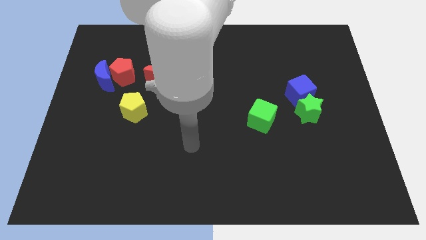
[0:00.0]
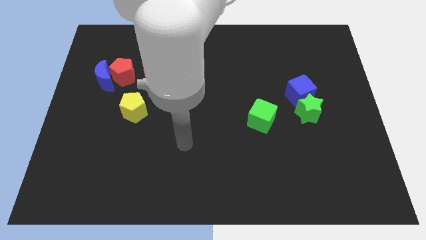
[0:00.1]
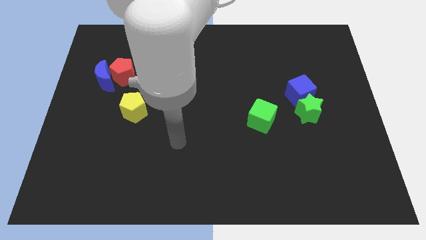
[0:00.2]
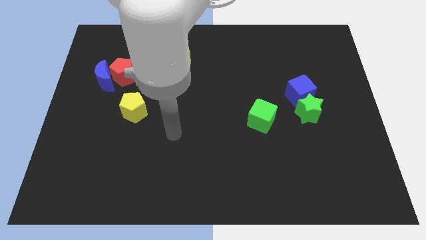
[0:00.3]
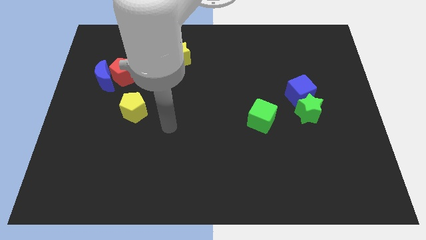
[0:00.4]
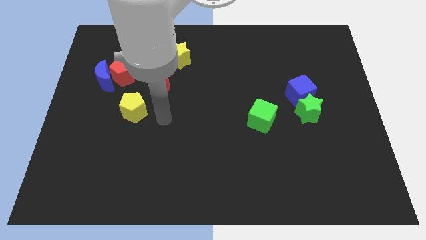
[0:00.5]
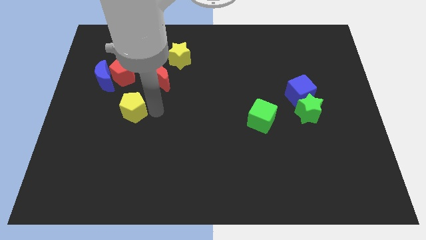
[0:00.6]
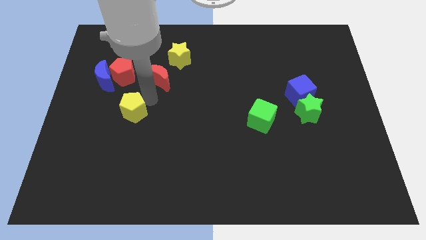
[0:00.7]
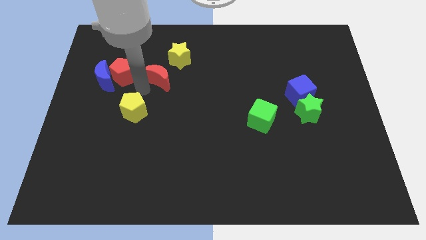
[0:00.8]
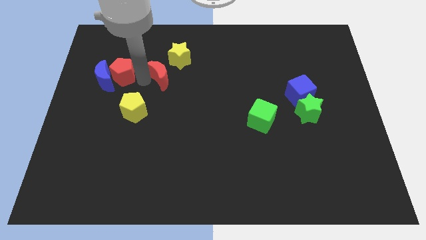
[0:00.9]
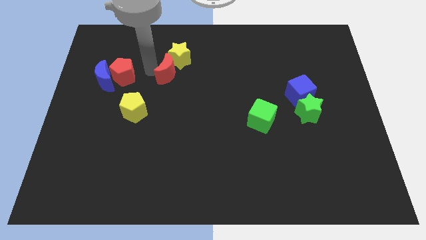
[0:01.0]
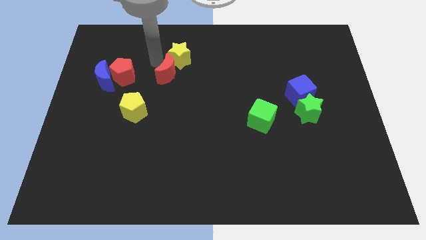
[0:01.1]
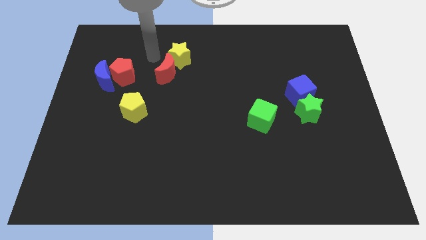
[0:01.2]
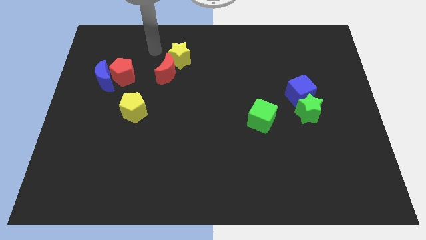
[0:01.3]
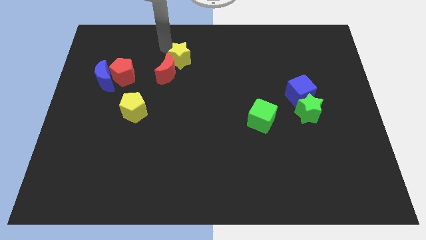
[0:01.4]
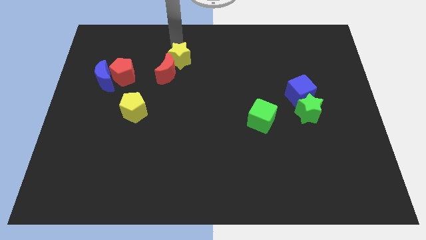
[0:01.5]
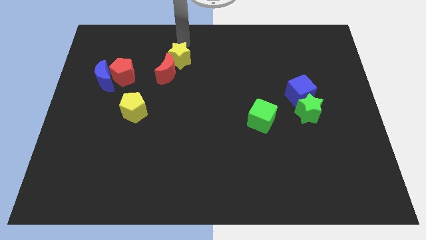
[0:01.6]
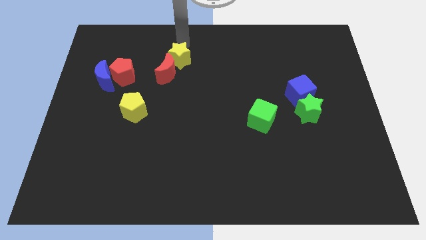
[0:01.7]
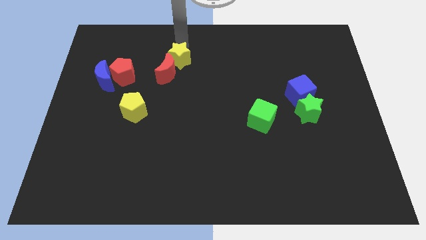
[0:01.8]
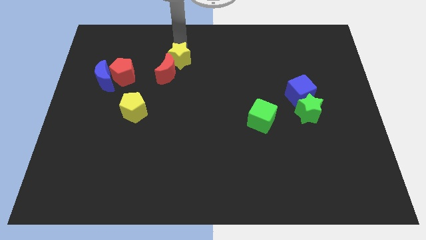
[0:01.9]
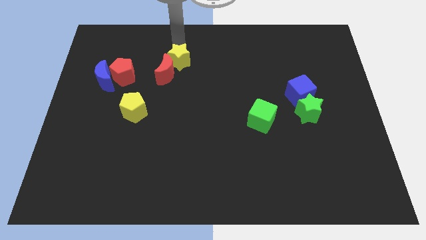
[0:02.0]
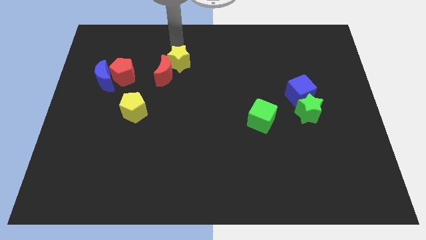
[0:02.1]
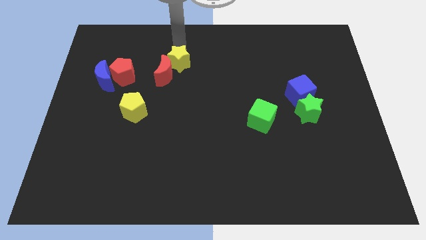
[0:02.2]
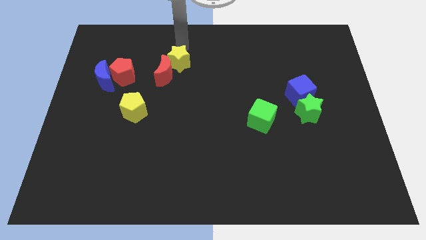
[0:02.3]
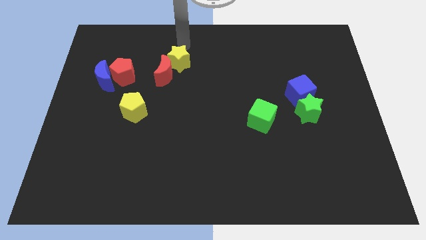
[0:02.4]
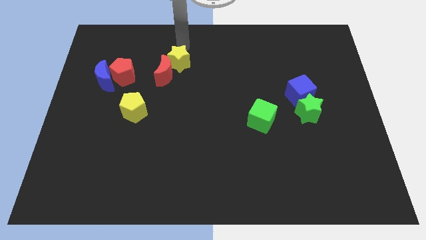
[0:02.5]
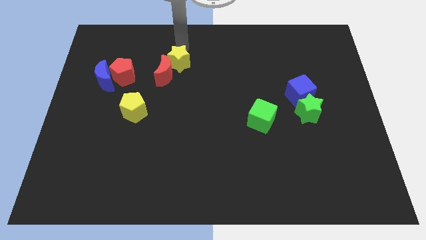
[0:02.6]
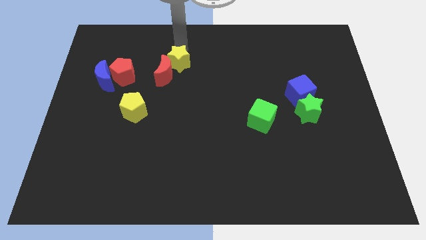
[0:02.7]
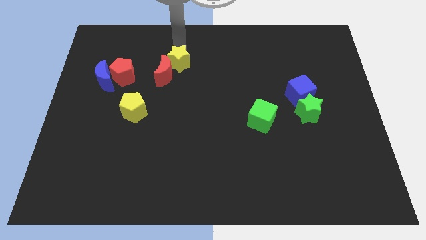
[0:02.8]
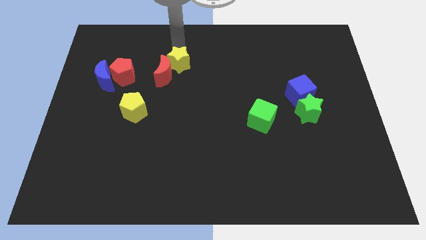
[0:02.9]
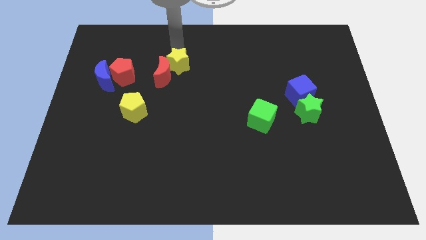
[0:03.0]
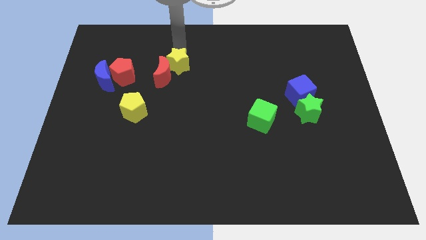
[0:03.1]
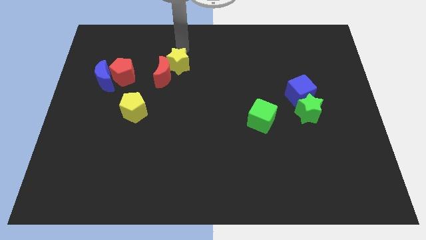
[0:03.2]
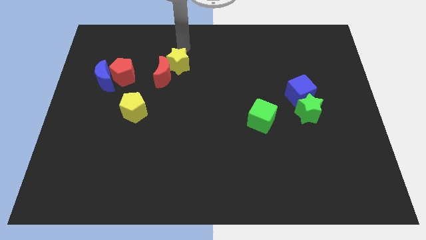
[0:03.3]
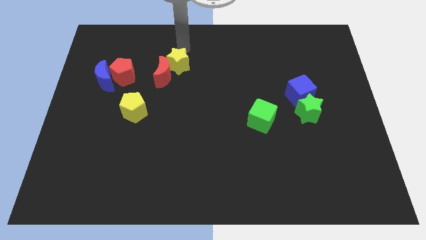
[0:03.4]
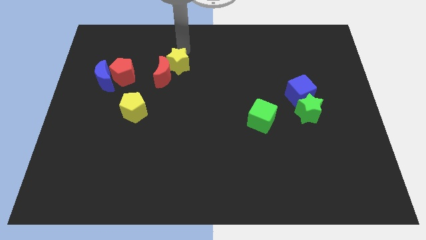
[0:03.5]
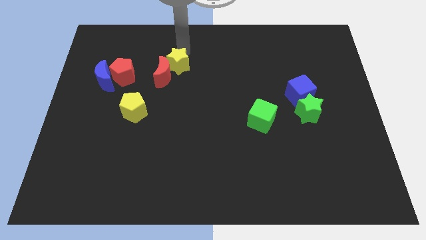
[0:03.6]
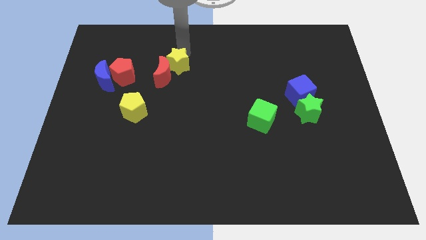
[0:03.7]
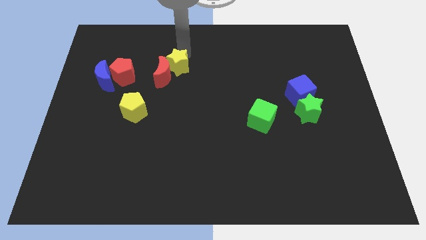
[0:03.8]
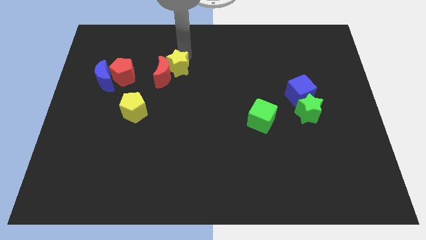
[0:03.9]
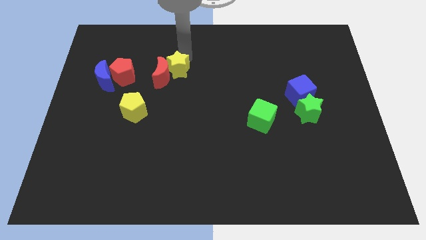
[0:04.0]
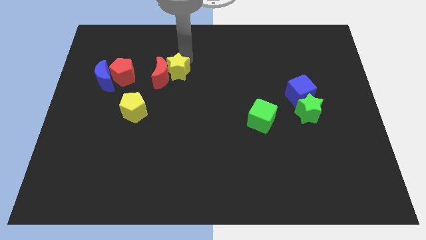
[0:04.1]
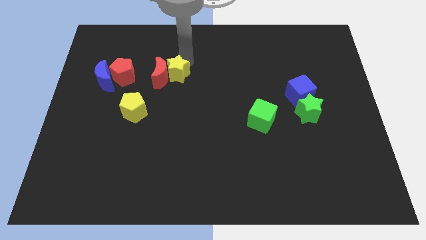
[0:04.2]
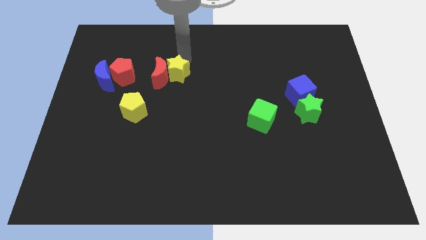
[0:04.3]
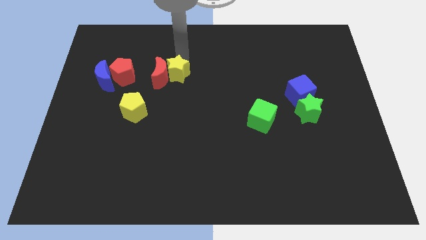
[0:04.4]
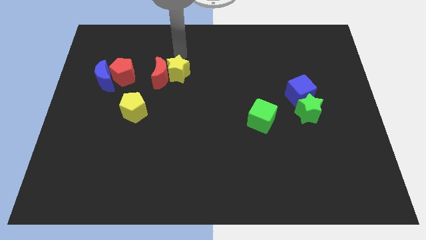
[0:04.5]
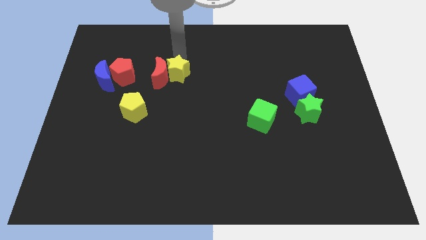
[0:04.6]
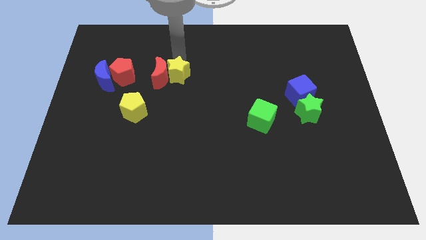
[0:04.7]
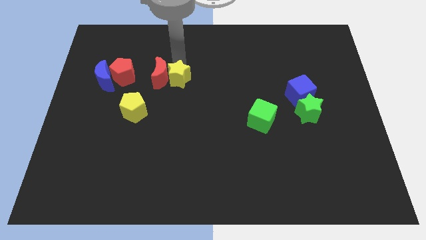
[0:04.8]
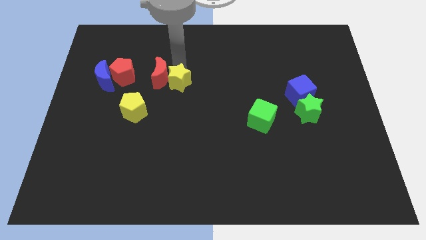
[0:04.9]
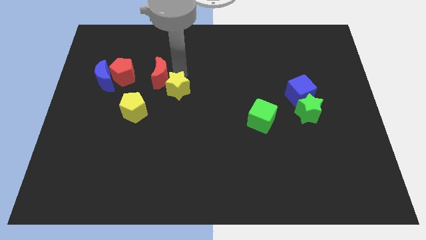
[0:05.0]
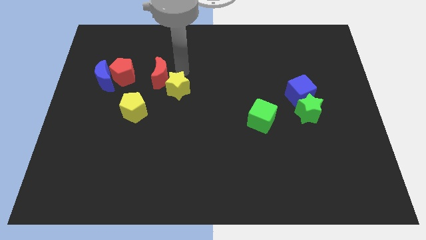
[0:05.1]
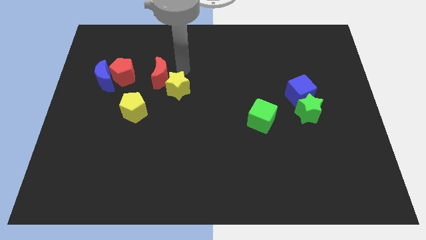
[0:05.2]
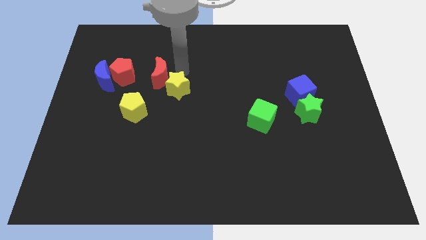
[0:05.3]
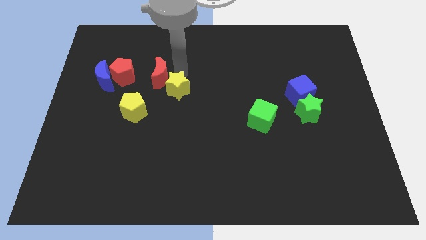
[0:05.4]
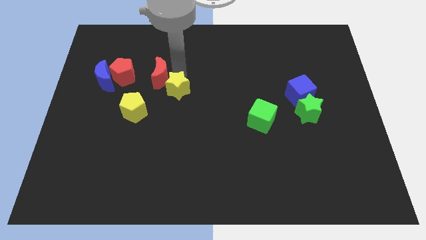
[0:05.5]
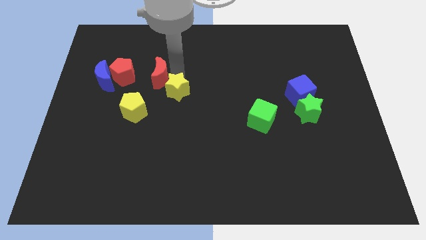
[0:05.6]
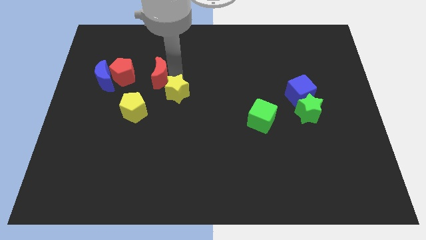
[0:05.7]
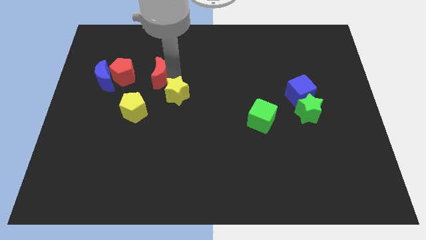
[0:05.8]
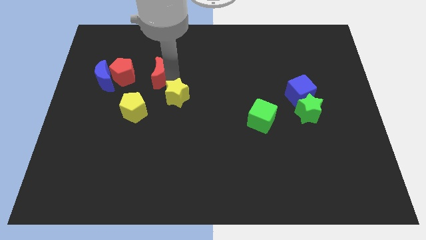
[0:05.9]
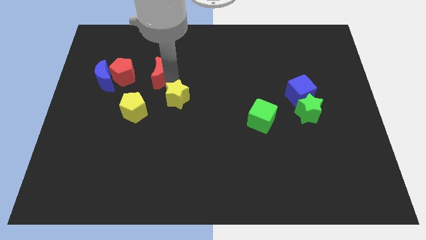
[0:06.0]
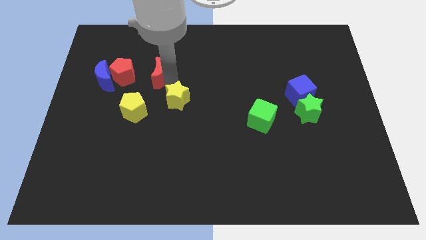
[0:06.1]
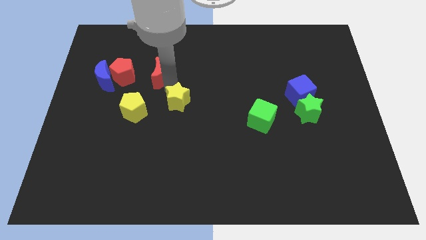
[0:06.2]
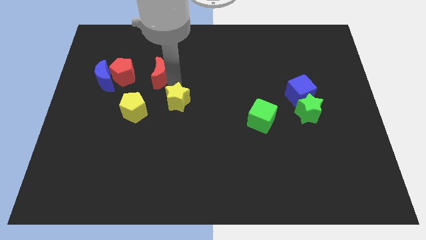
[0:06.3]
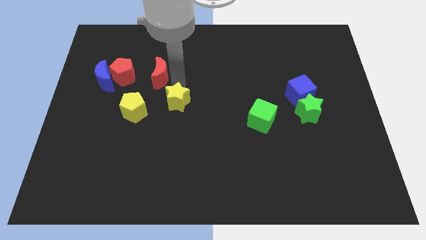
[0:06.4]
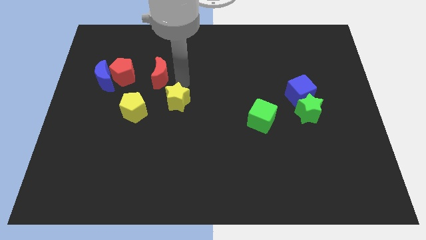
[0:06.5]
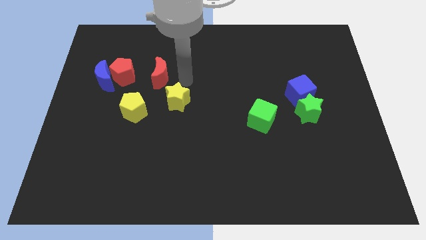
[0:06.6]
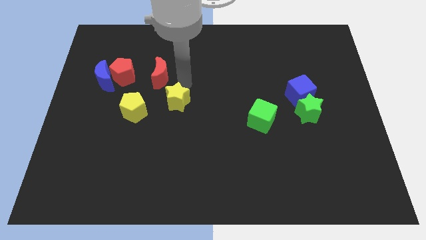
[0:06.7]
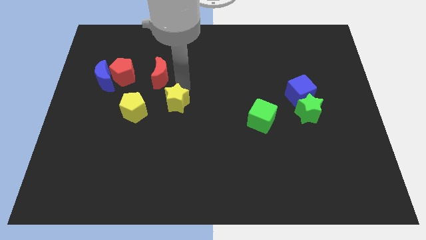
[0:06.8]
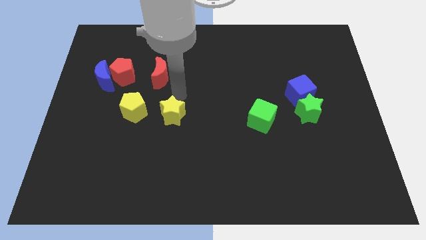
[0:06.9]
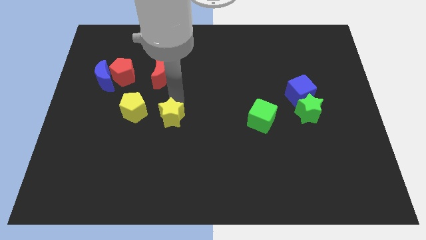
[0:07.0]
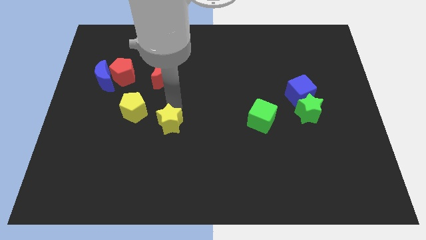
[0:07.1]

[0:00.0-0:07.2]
push the yellow star downwards

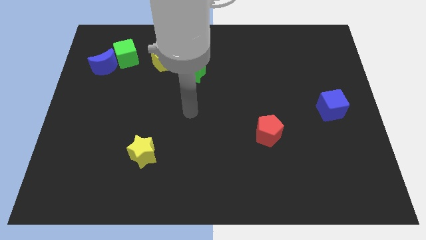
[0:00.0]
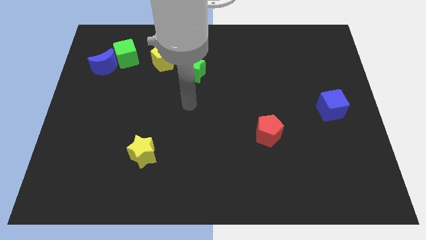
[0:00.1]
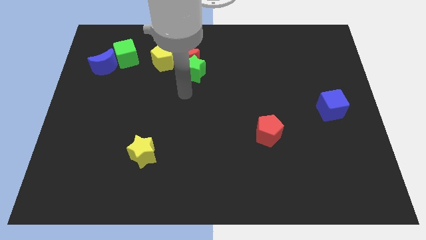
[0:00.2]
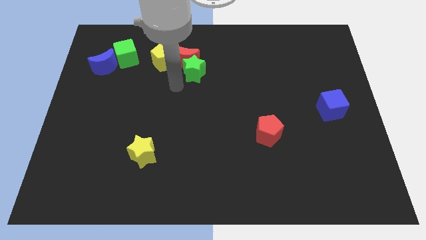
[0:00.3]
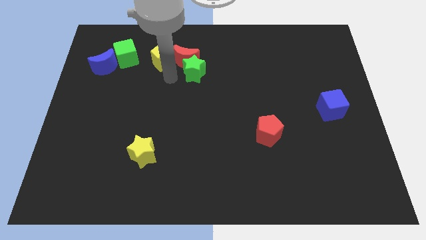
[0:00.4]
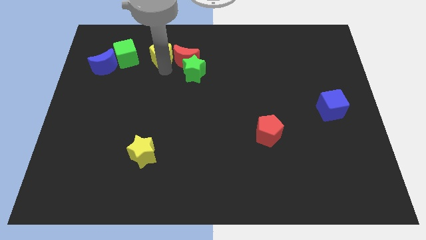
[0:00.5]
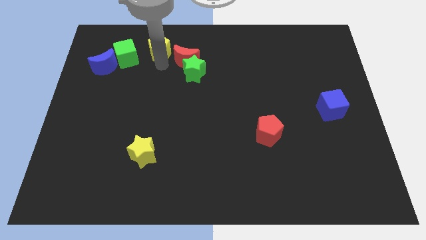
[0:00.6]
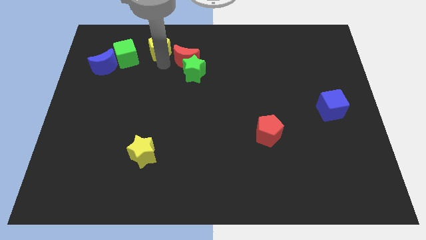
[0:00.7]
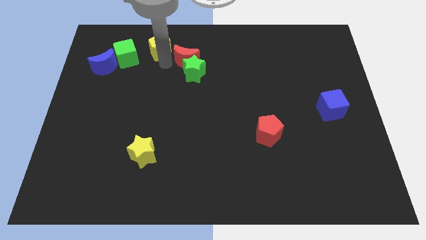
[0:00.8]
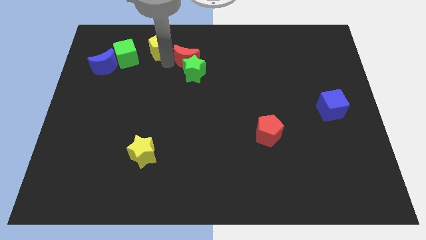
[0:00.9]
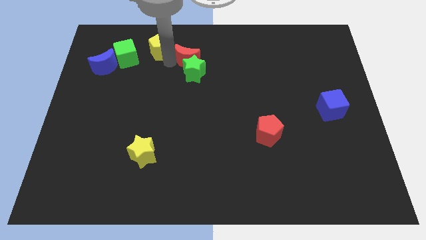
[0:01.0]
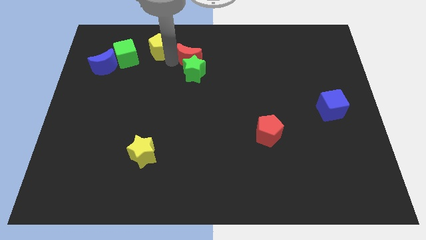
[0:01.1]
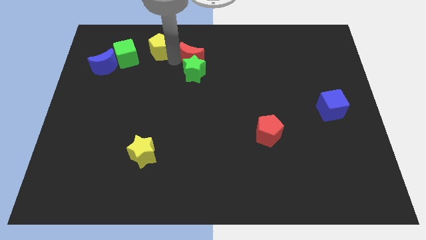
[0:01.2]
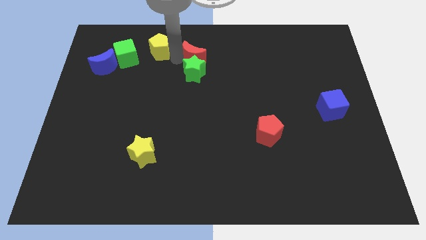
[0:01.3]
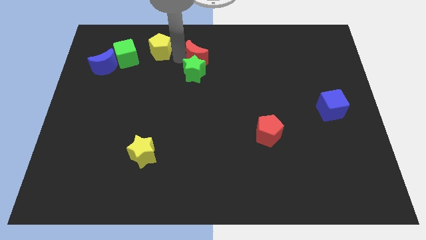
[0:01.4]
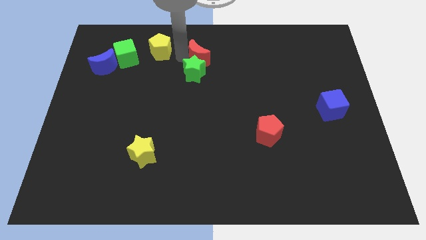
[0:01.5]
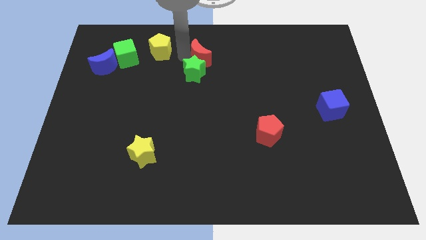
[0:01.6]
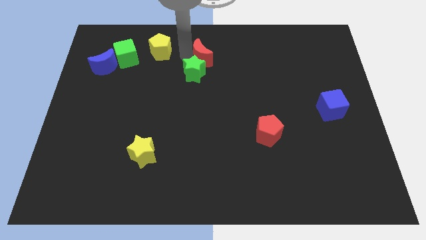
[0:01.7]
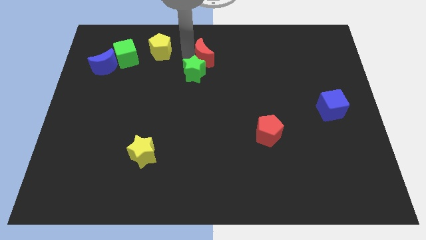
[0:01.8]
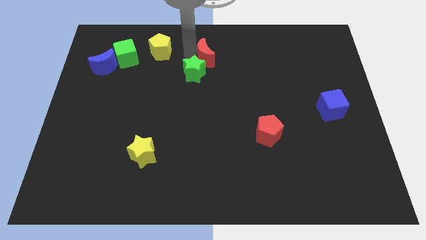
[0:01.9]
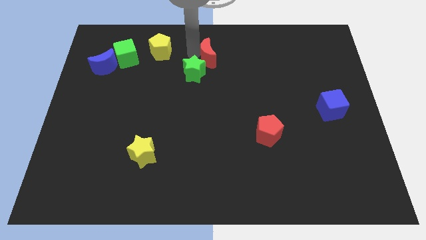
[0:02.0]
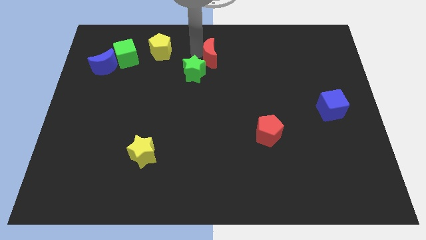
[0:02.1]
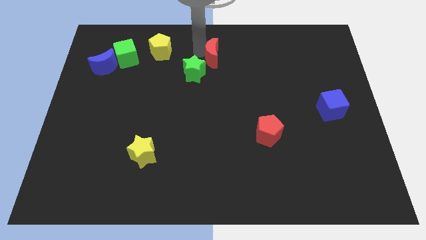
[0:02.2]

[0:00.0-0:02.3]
push the red moon to the right a bit
